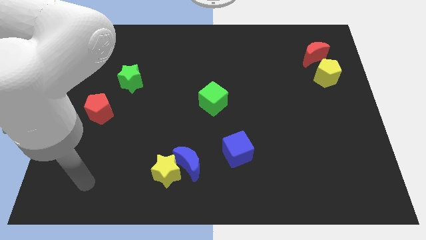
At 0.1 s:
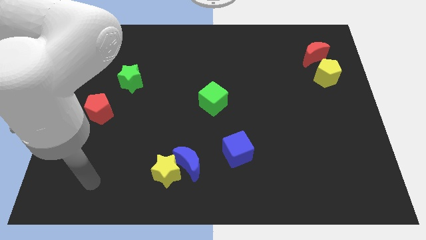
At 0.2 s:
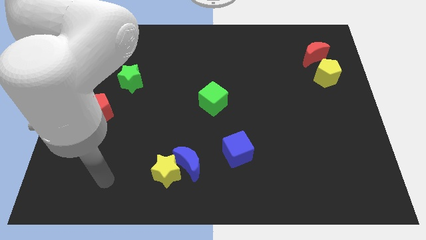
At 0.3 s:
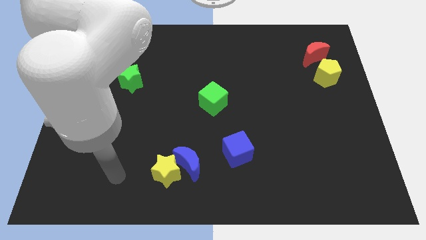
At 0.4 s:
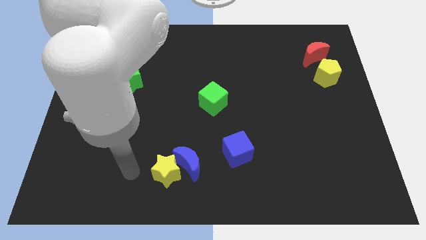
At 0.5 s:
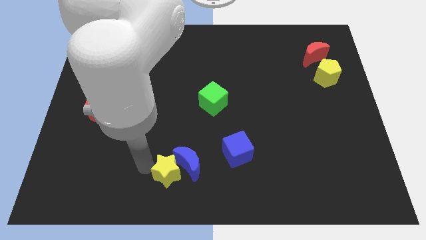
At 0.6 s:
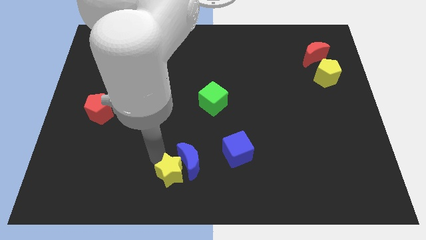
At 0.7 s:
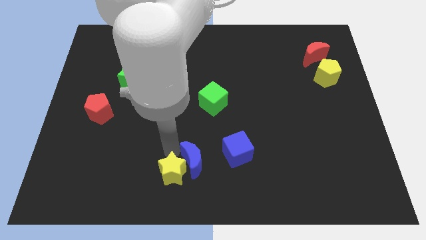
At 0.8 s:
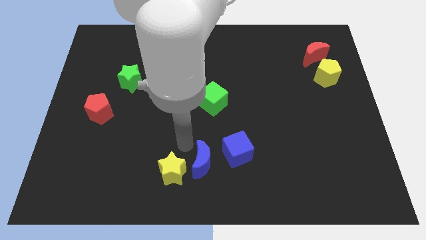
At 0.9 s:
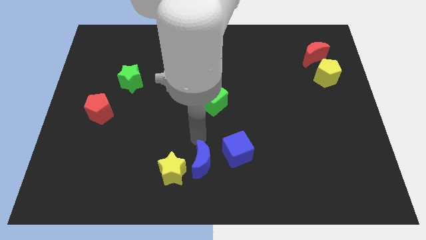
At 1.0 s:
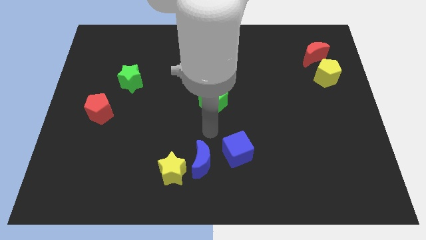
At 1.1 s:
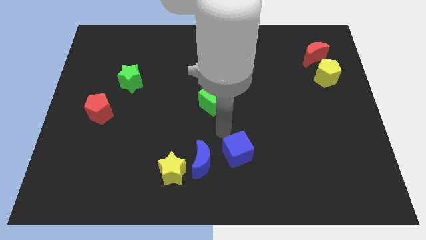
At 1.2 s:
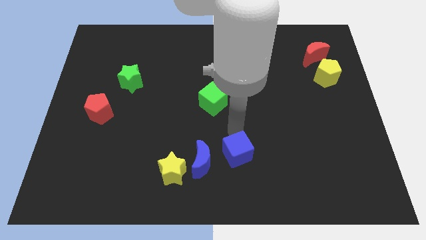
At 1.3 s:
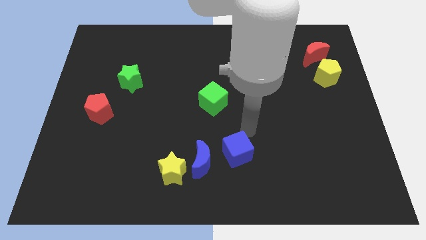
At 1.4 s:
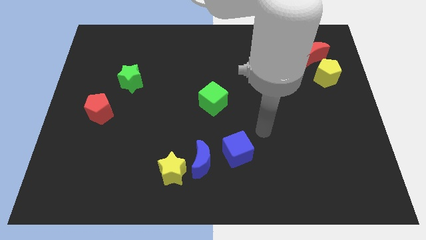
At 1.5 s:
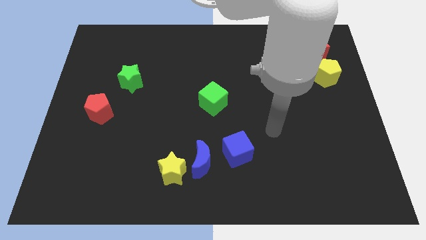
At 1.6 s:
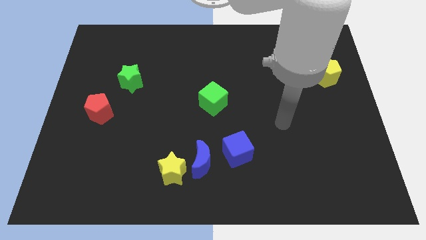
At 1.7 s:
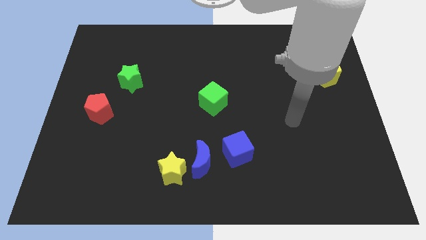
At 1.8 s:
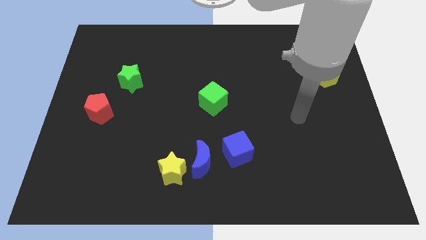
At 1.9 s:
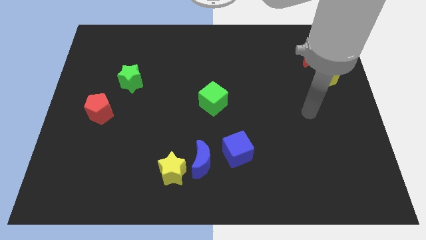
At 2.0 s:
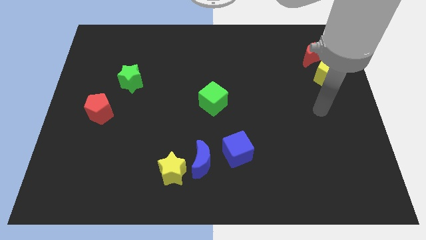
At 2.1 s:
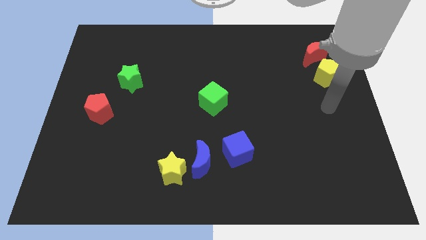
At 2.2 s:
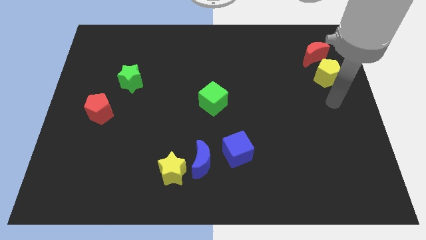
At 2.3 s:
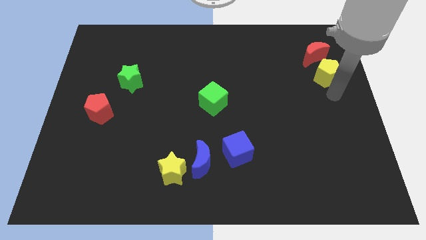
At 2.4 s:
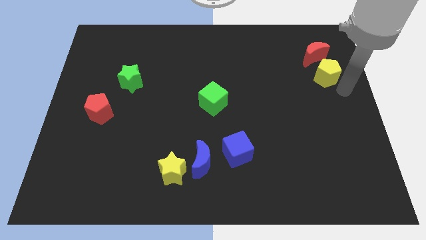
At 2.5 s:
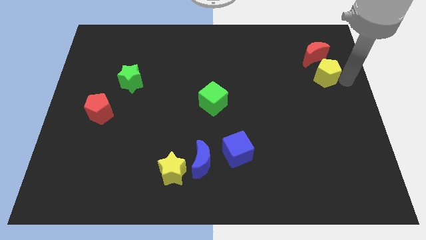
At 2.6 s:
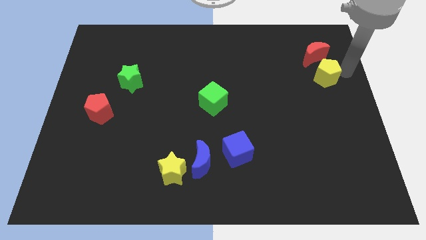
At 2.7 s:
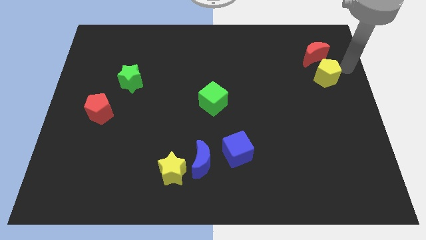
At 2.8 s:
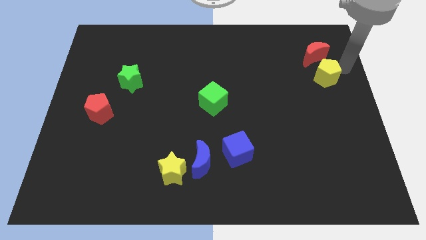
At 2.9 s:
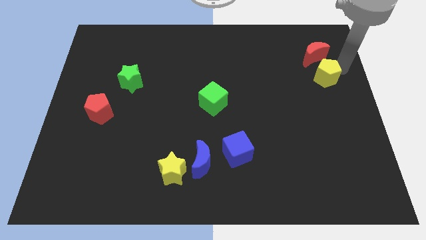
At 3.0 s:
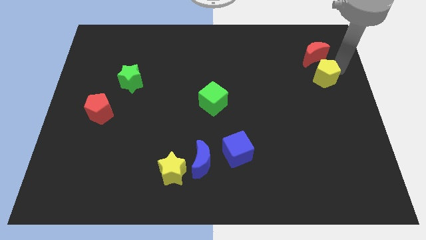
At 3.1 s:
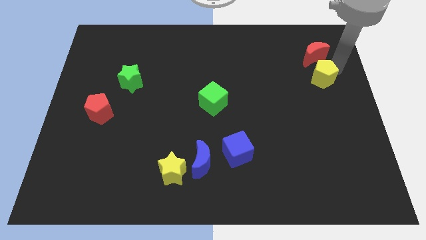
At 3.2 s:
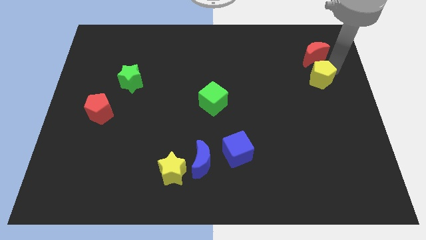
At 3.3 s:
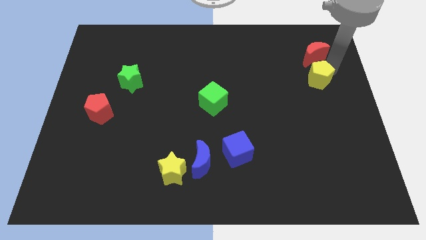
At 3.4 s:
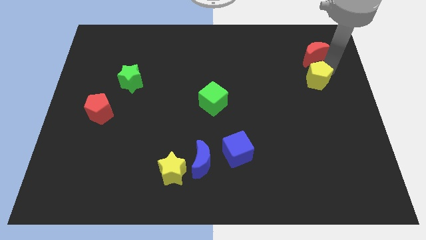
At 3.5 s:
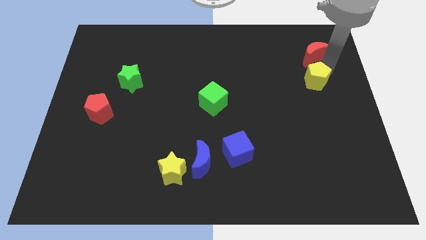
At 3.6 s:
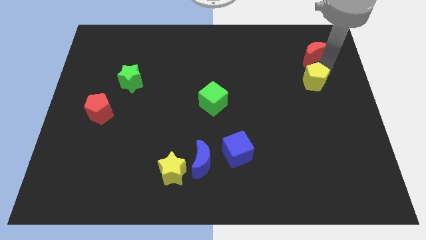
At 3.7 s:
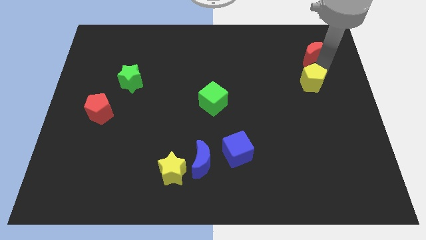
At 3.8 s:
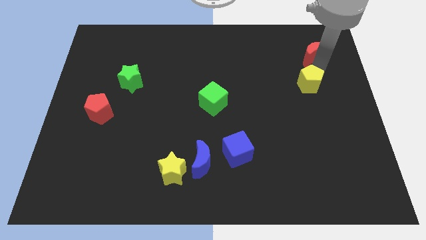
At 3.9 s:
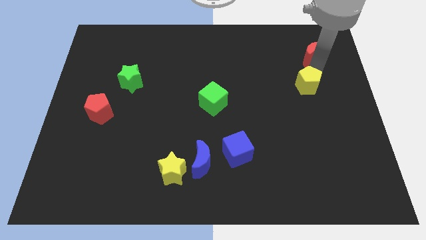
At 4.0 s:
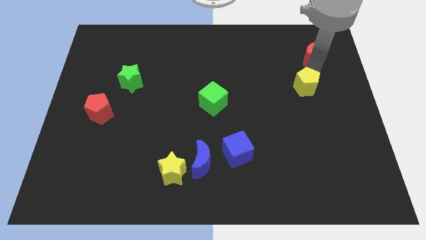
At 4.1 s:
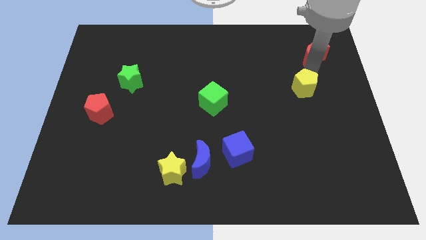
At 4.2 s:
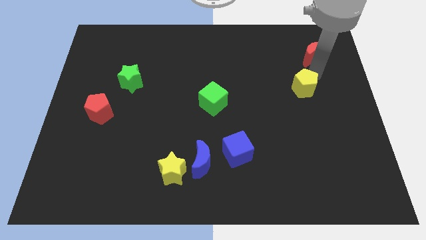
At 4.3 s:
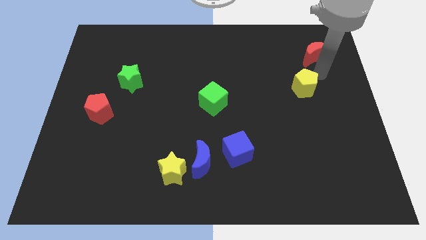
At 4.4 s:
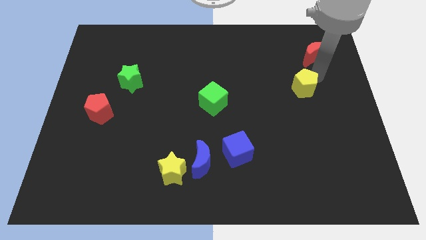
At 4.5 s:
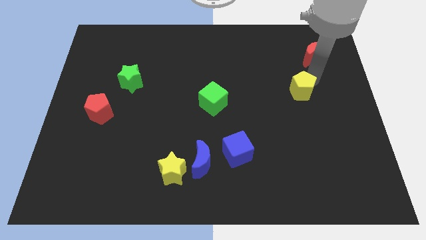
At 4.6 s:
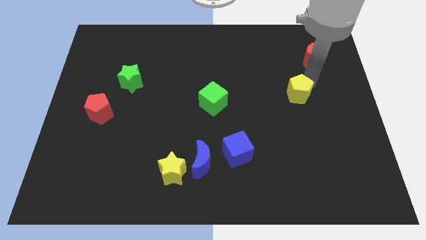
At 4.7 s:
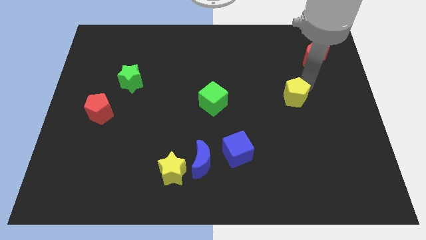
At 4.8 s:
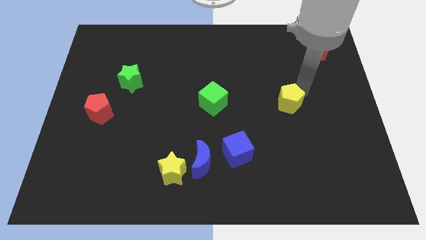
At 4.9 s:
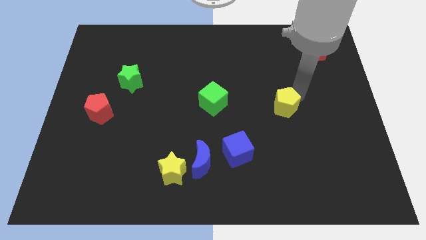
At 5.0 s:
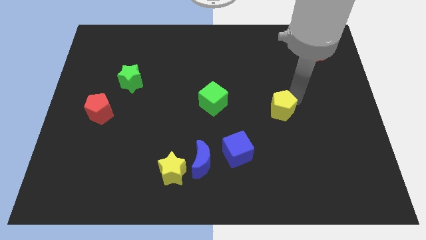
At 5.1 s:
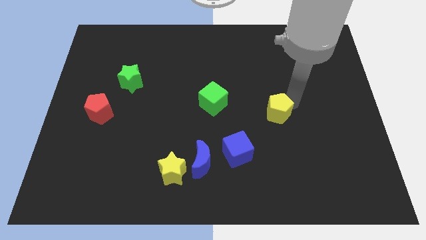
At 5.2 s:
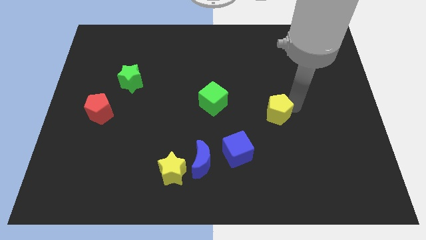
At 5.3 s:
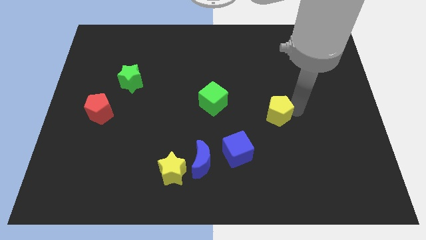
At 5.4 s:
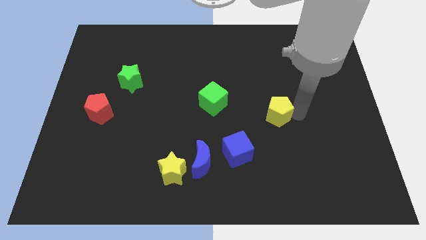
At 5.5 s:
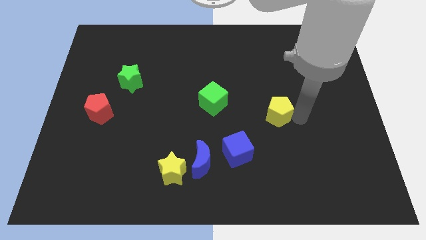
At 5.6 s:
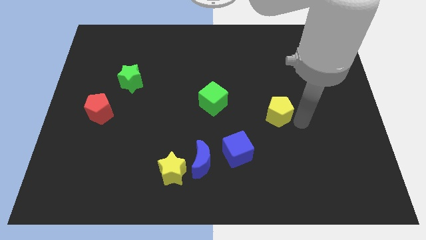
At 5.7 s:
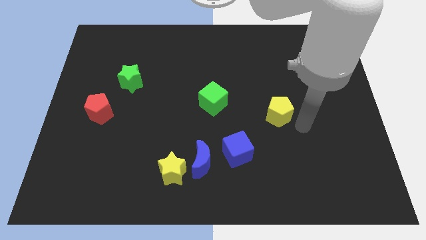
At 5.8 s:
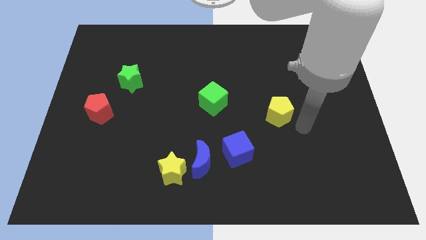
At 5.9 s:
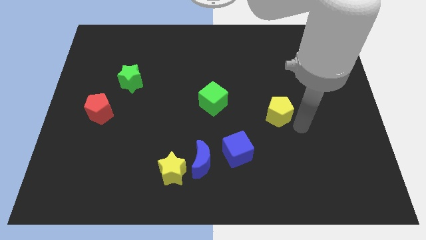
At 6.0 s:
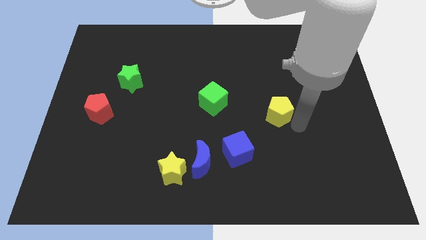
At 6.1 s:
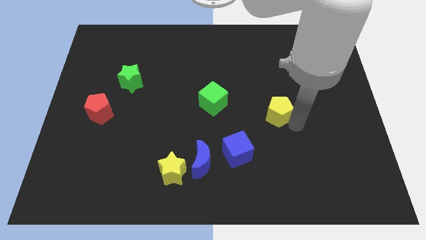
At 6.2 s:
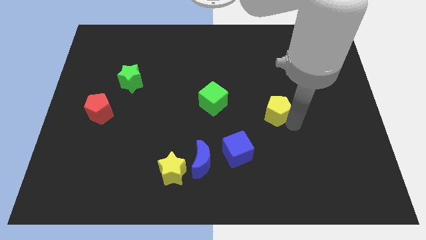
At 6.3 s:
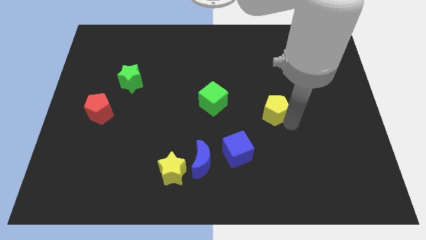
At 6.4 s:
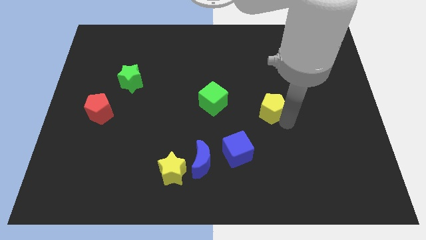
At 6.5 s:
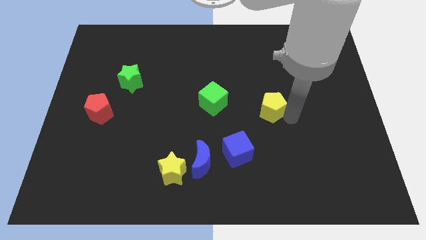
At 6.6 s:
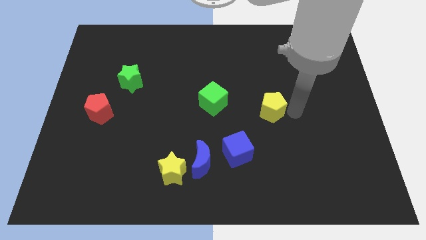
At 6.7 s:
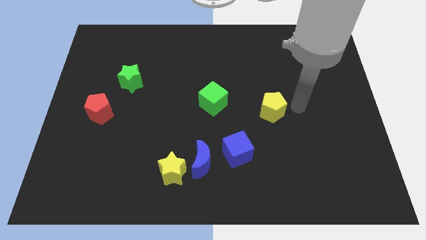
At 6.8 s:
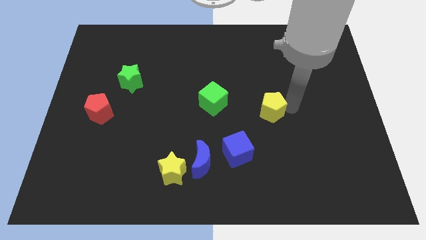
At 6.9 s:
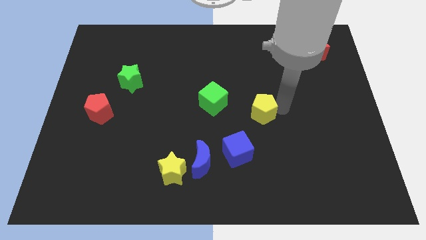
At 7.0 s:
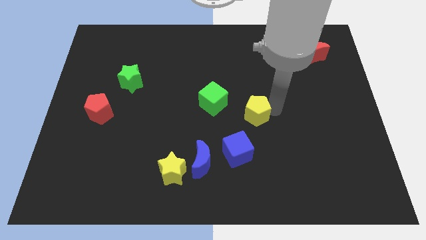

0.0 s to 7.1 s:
put the yellow pentagon above the blue cube
